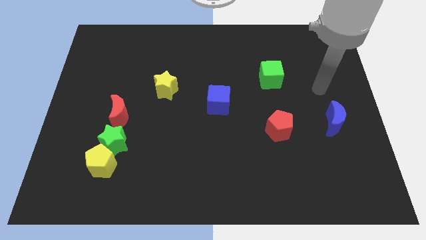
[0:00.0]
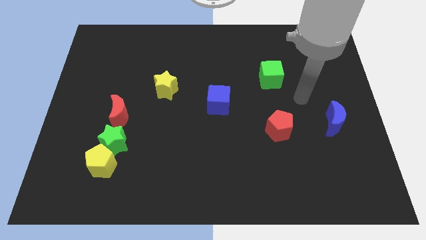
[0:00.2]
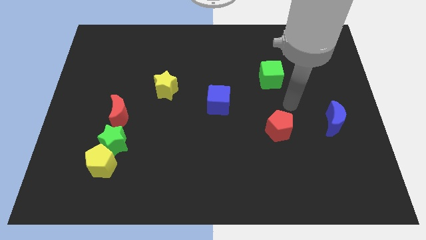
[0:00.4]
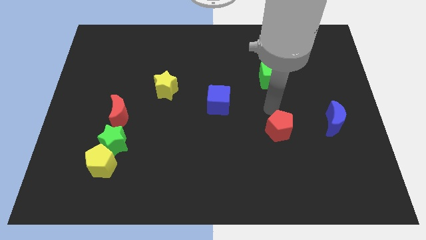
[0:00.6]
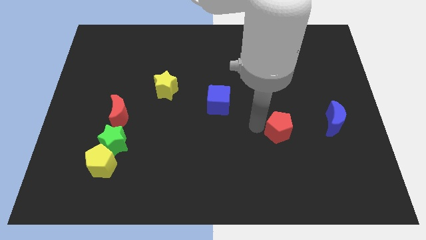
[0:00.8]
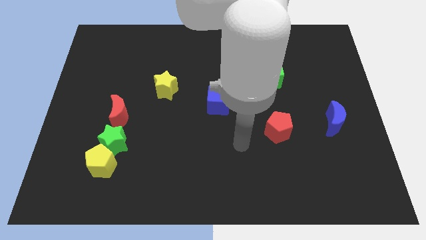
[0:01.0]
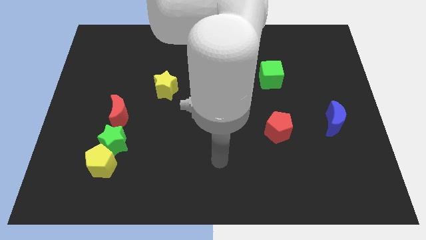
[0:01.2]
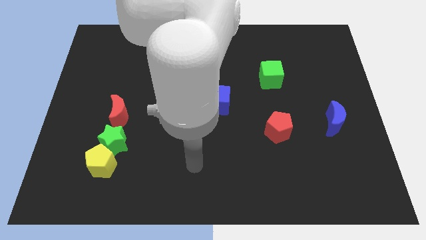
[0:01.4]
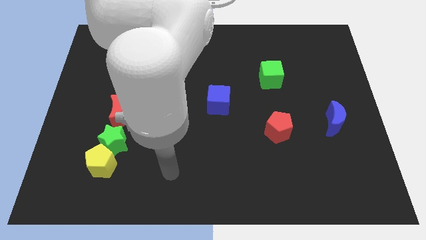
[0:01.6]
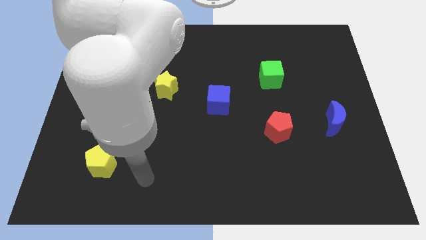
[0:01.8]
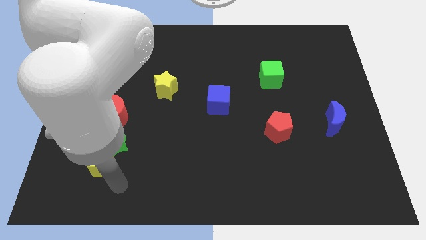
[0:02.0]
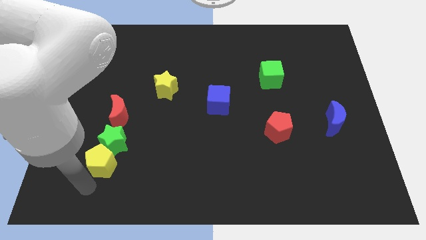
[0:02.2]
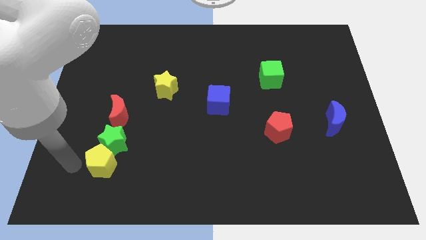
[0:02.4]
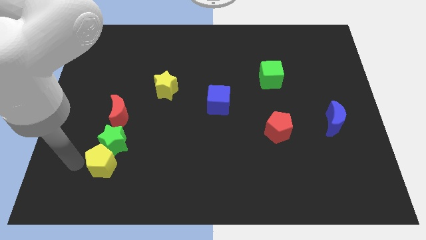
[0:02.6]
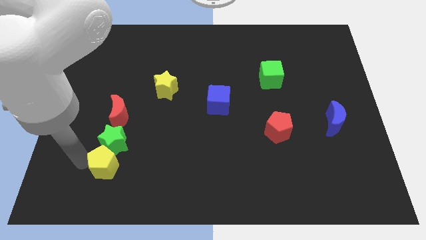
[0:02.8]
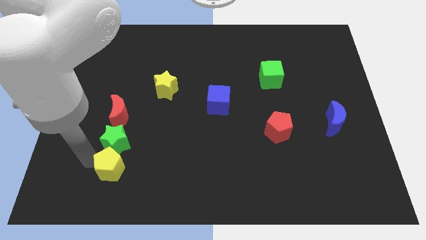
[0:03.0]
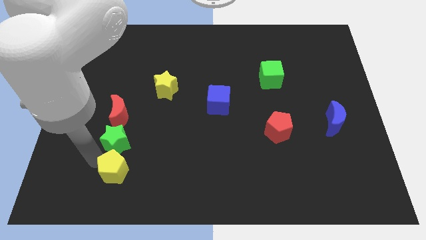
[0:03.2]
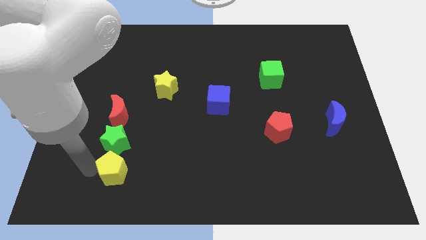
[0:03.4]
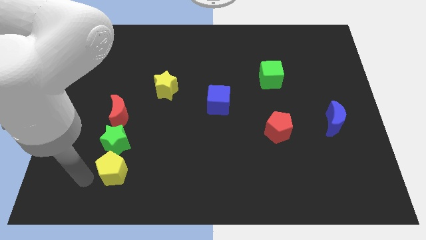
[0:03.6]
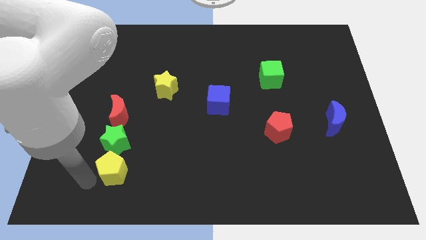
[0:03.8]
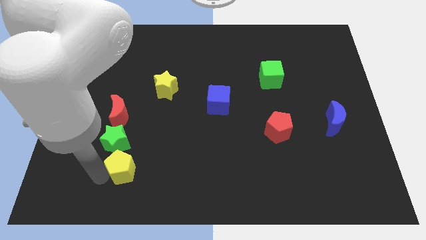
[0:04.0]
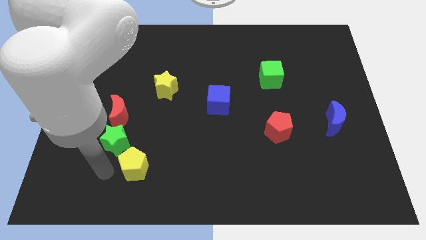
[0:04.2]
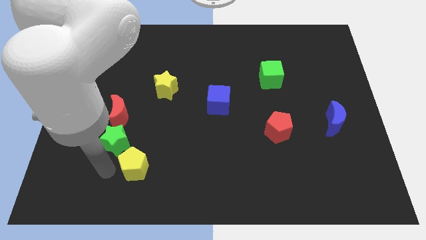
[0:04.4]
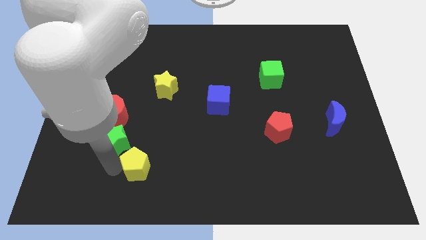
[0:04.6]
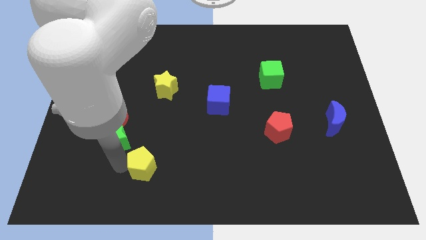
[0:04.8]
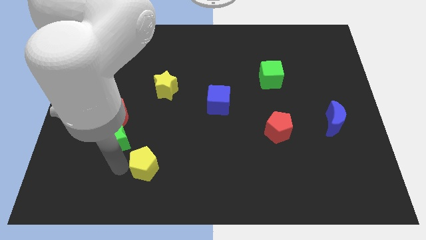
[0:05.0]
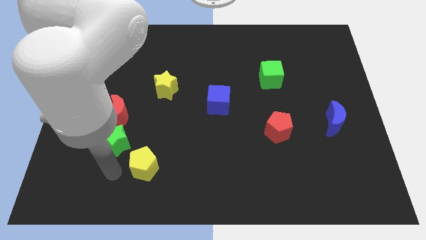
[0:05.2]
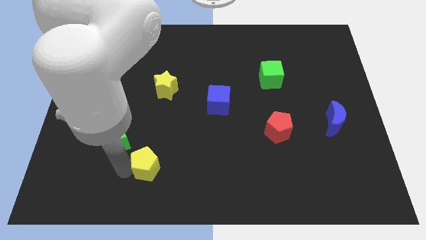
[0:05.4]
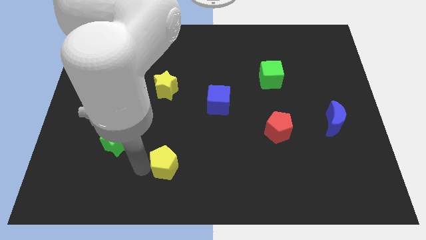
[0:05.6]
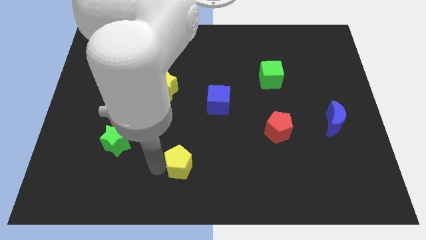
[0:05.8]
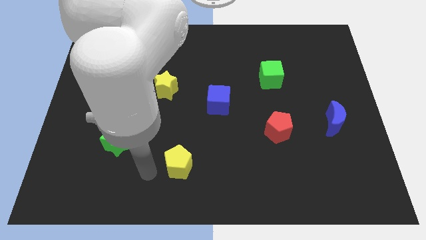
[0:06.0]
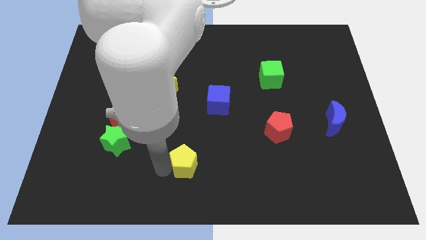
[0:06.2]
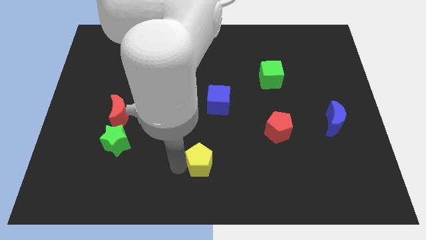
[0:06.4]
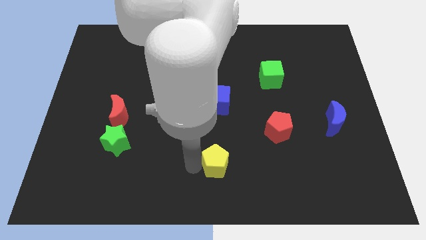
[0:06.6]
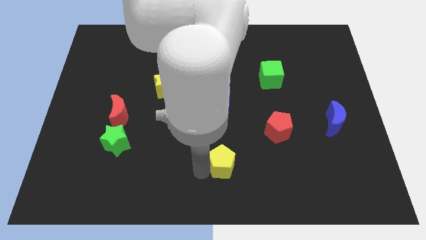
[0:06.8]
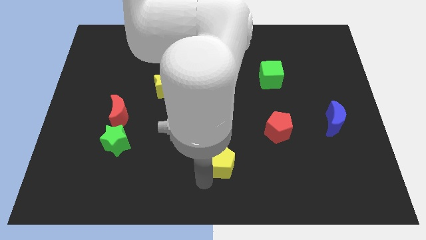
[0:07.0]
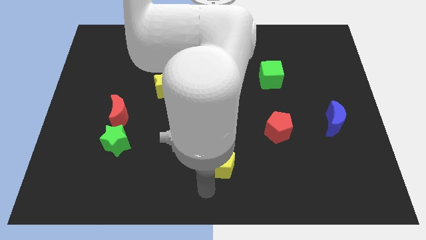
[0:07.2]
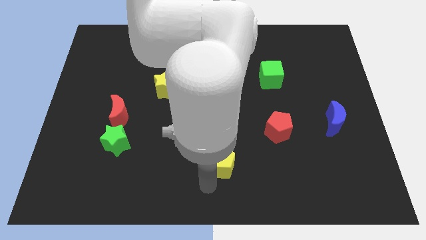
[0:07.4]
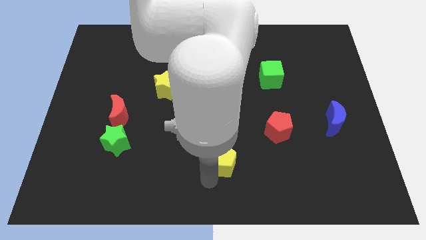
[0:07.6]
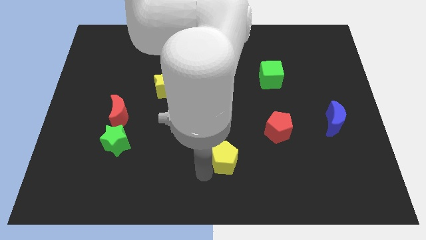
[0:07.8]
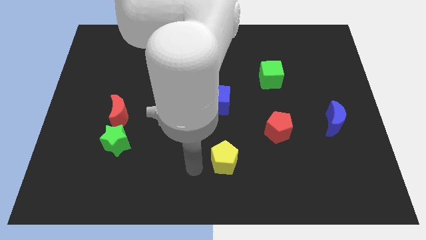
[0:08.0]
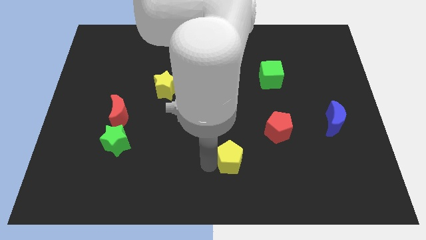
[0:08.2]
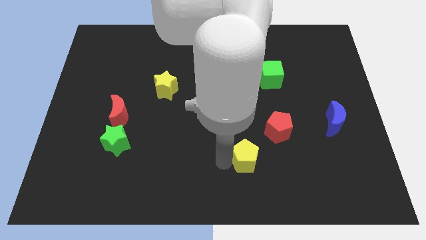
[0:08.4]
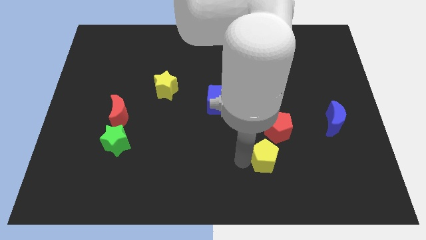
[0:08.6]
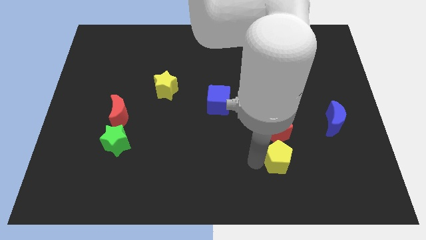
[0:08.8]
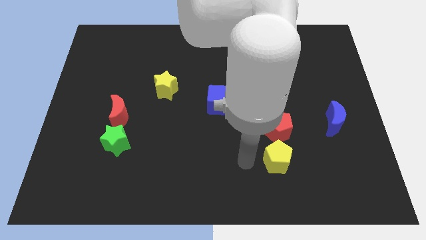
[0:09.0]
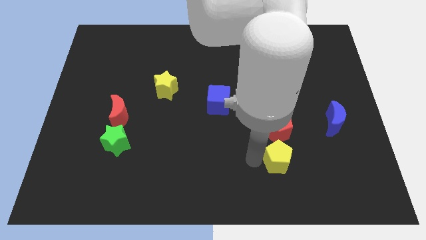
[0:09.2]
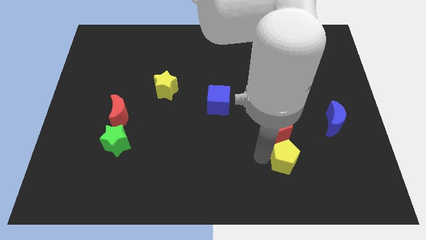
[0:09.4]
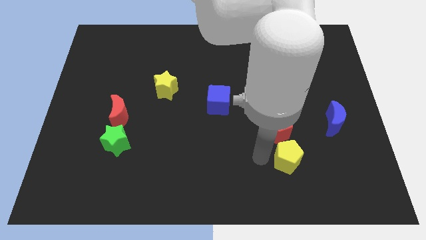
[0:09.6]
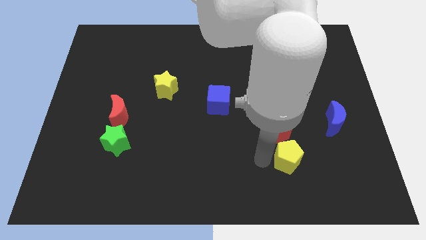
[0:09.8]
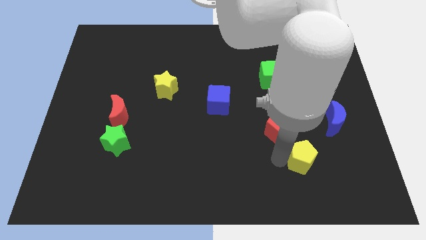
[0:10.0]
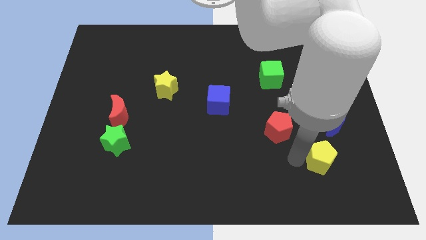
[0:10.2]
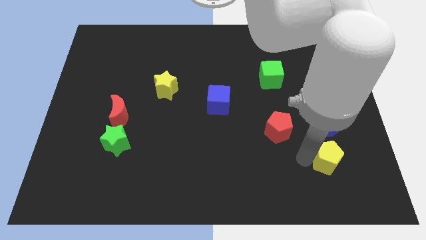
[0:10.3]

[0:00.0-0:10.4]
put the yellow pentagon to the bottom of the blue moon

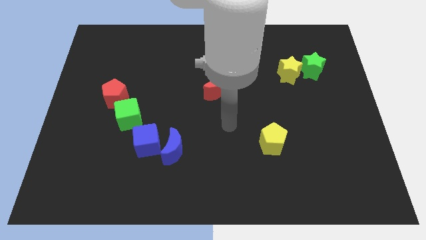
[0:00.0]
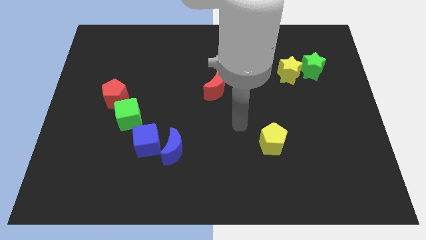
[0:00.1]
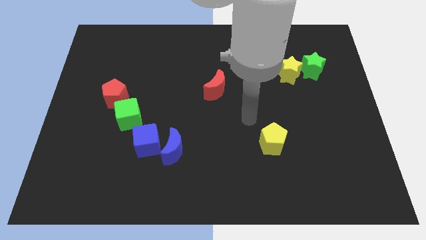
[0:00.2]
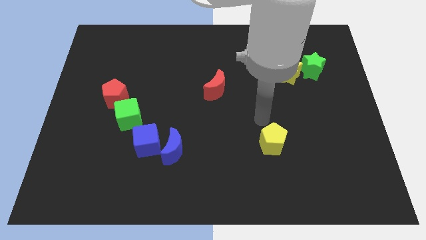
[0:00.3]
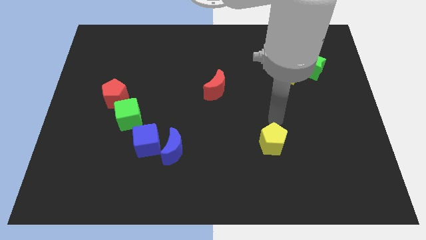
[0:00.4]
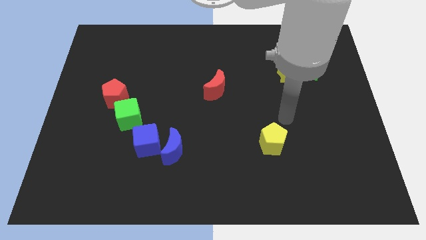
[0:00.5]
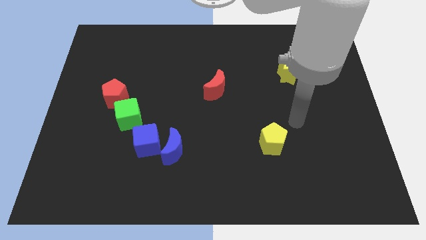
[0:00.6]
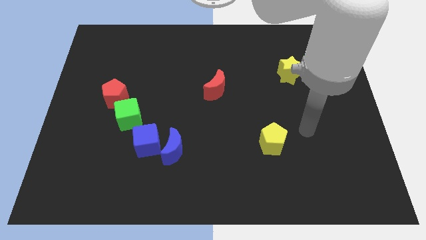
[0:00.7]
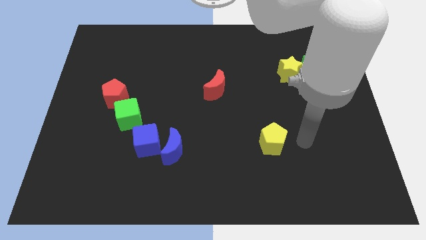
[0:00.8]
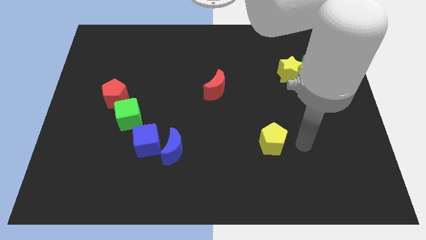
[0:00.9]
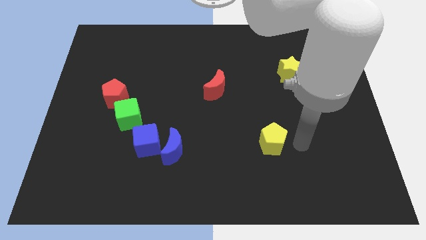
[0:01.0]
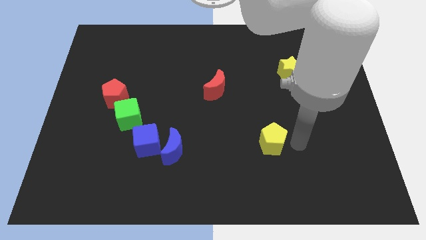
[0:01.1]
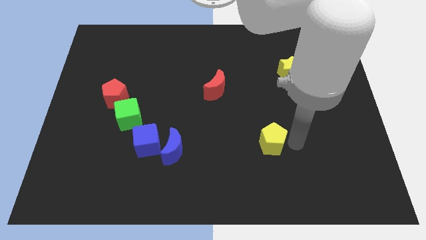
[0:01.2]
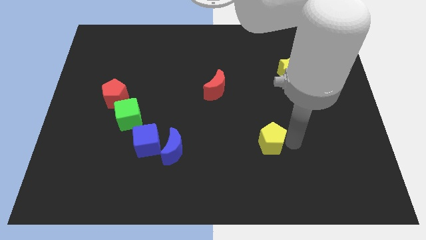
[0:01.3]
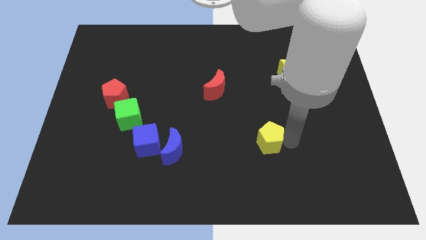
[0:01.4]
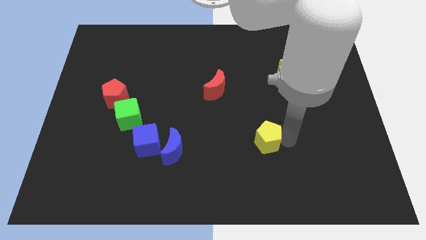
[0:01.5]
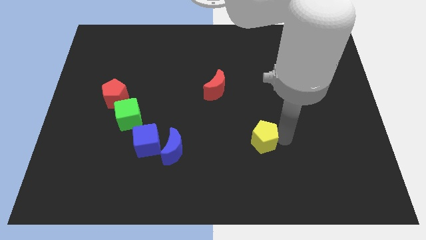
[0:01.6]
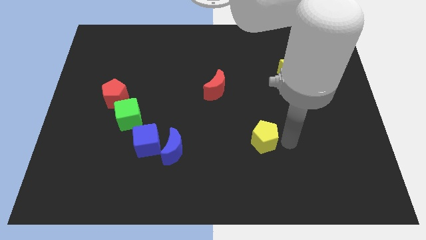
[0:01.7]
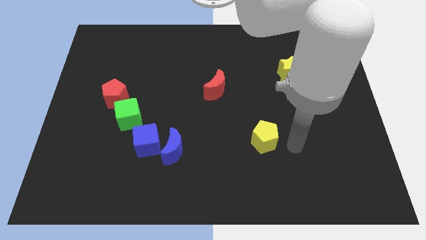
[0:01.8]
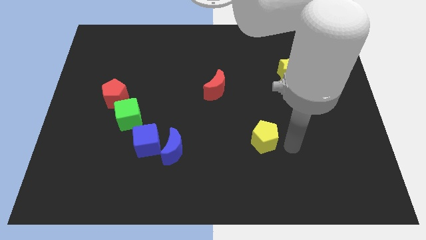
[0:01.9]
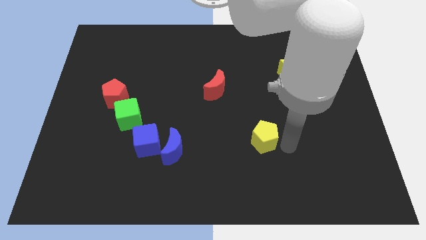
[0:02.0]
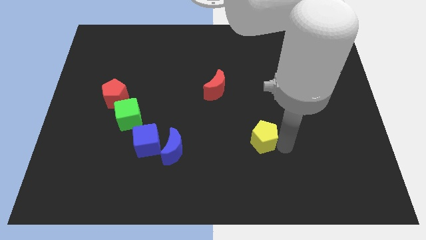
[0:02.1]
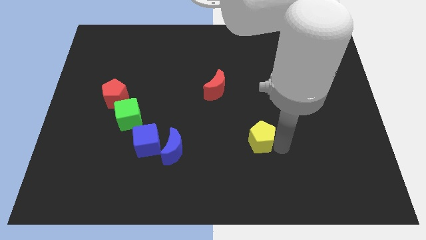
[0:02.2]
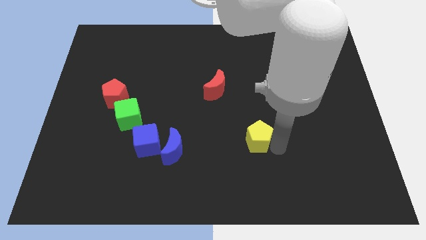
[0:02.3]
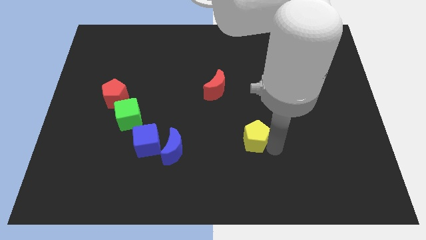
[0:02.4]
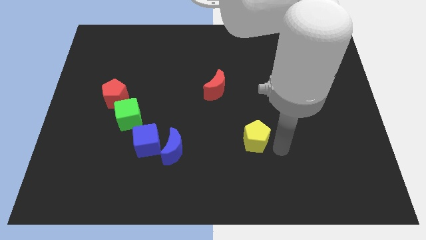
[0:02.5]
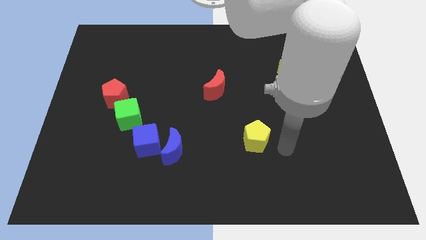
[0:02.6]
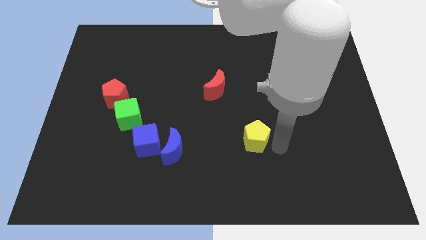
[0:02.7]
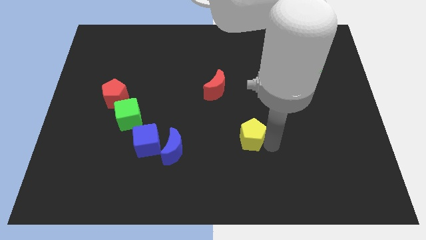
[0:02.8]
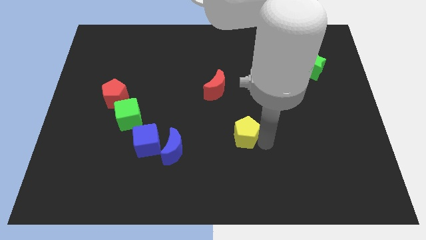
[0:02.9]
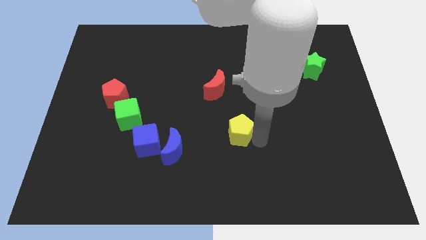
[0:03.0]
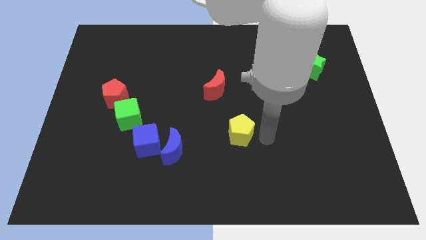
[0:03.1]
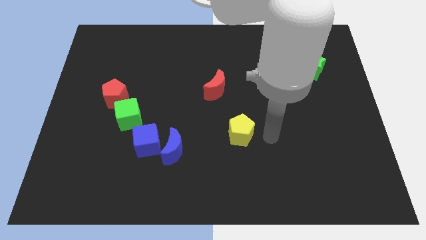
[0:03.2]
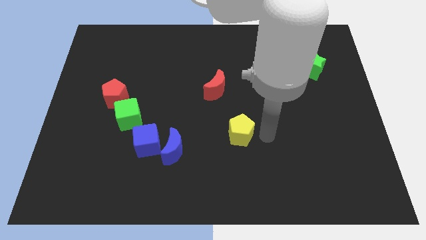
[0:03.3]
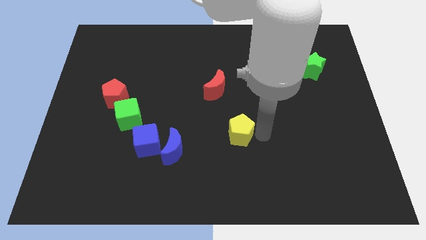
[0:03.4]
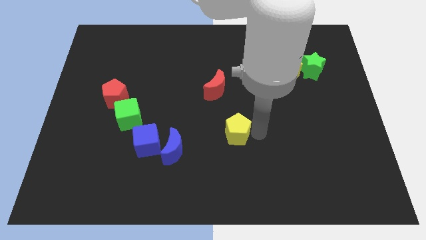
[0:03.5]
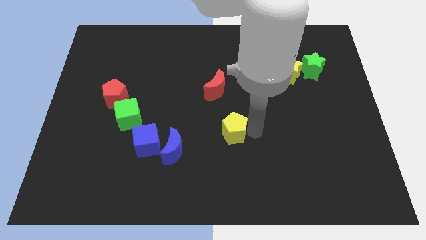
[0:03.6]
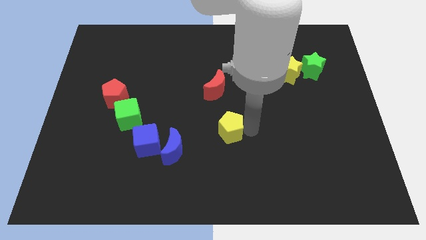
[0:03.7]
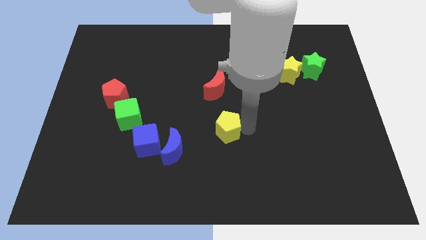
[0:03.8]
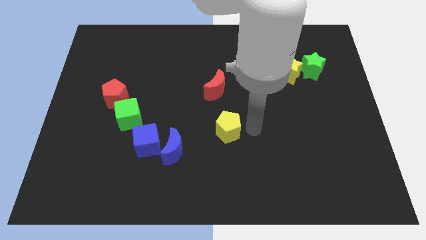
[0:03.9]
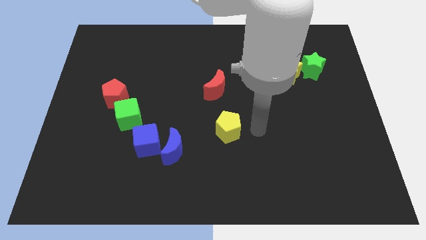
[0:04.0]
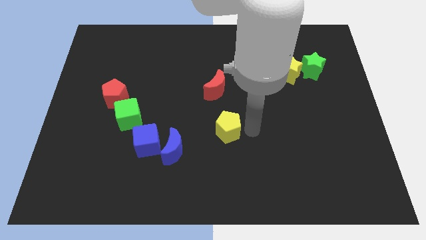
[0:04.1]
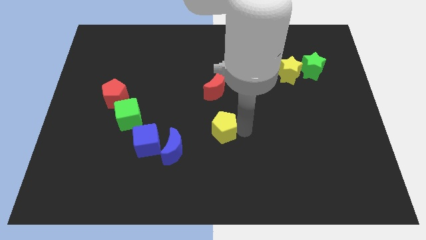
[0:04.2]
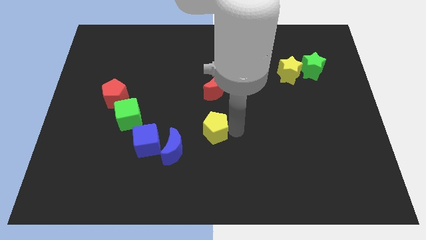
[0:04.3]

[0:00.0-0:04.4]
move the yellow pentagon diagonally up and to the right of the blue moon
